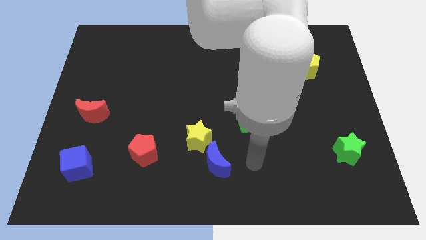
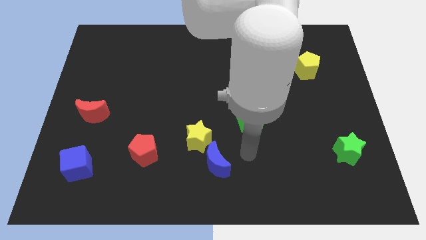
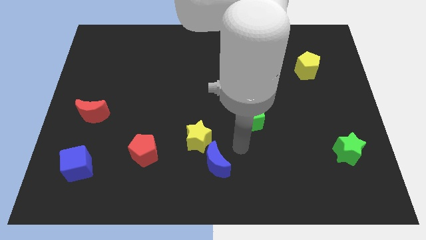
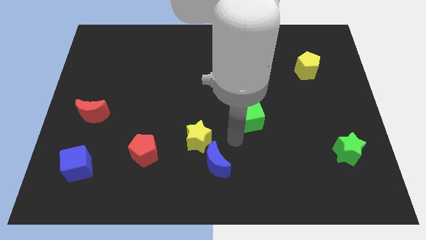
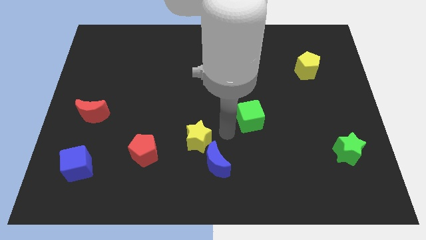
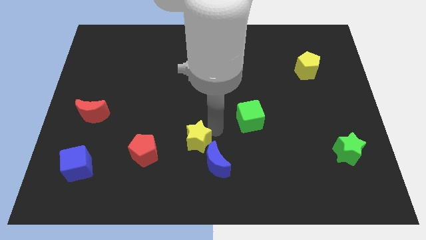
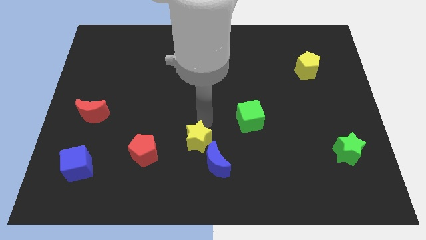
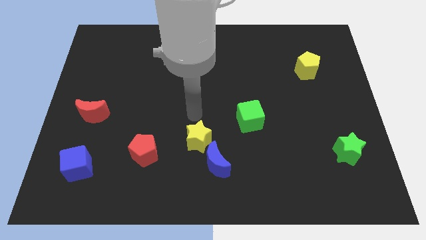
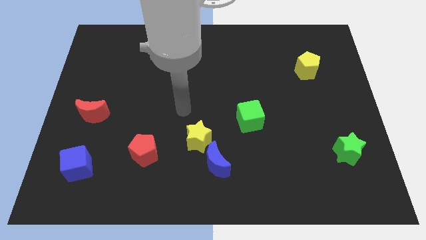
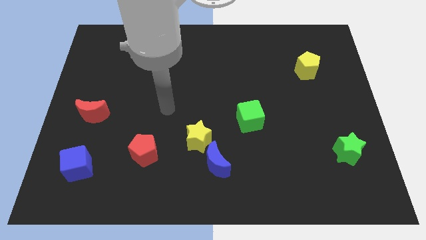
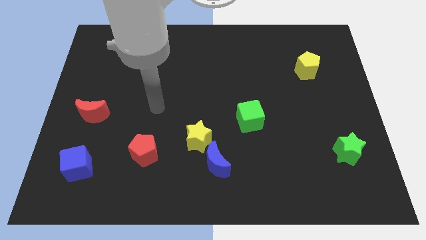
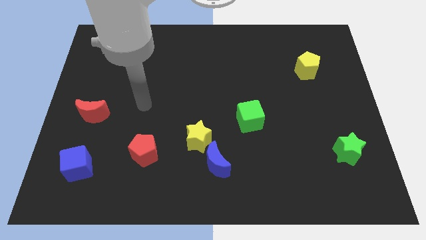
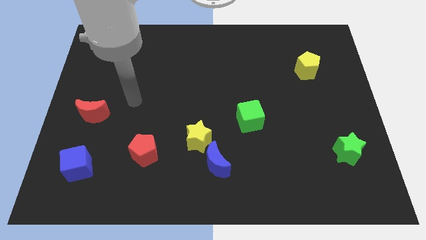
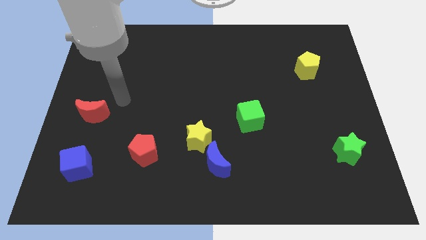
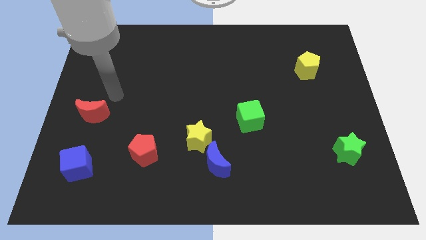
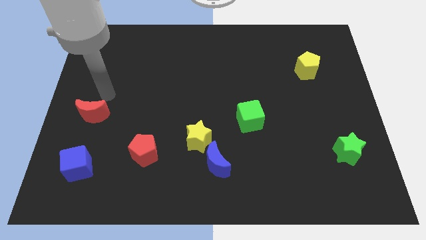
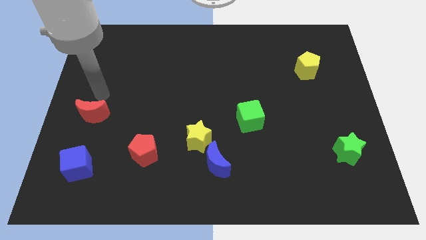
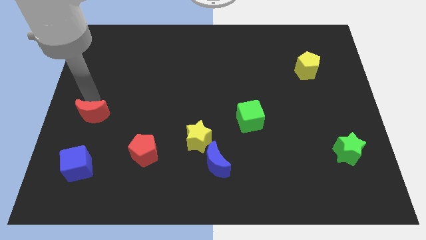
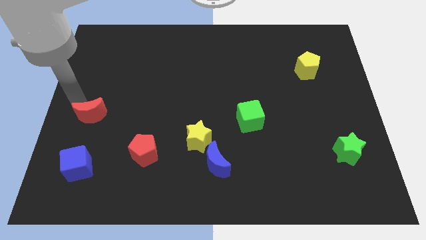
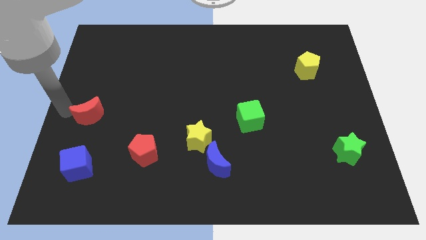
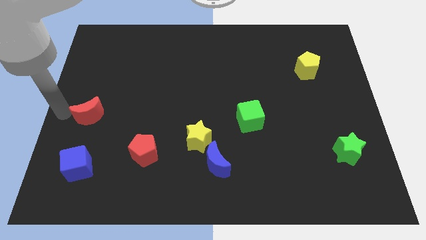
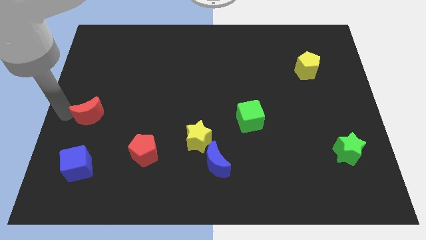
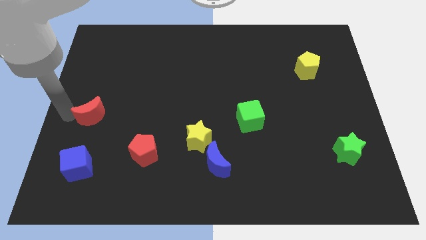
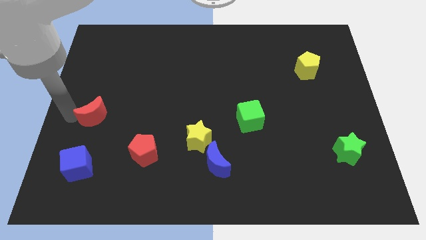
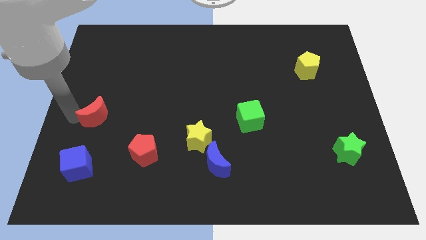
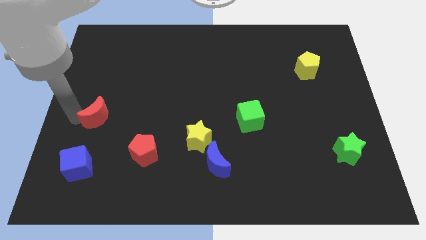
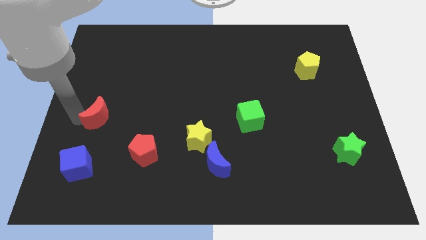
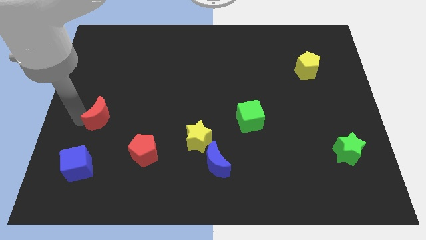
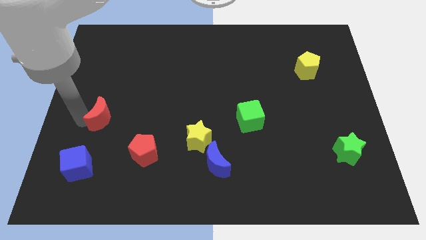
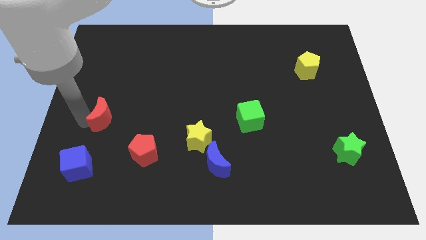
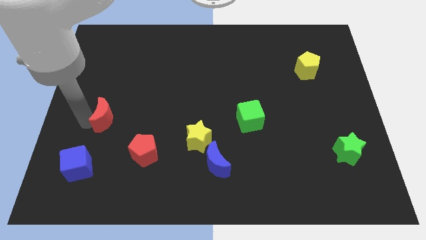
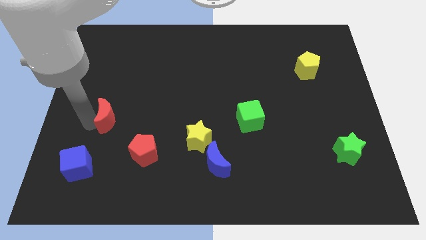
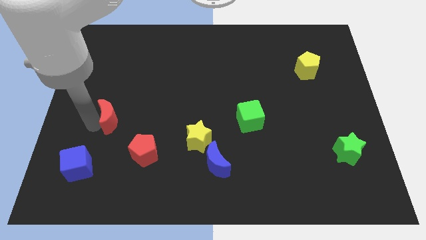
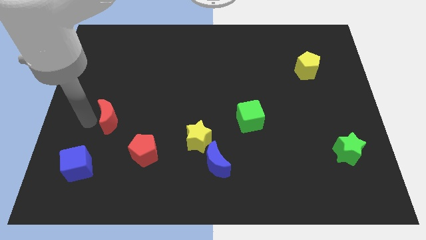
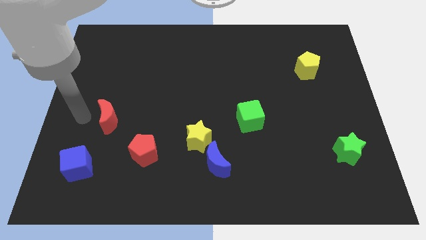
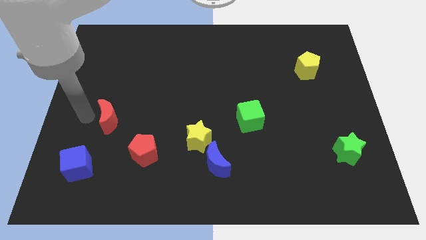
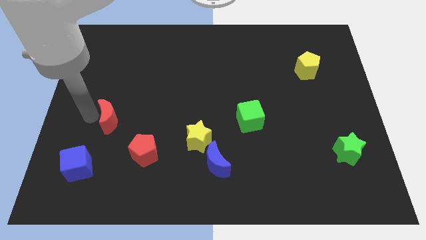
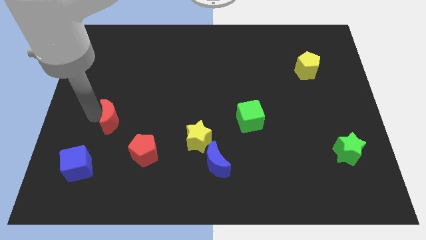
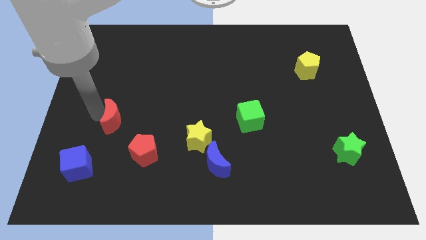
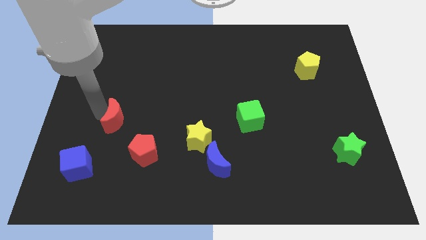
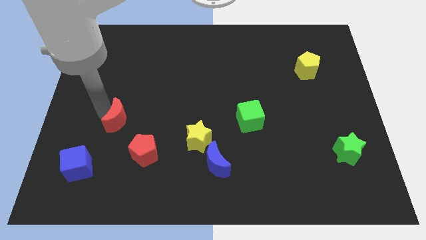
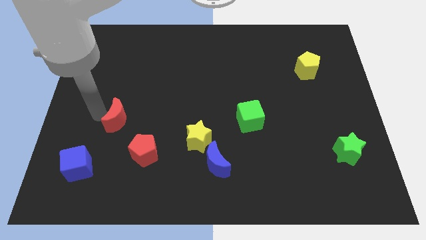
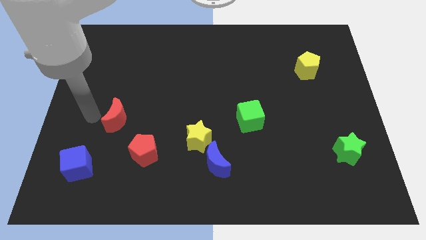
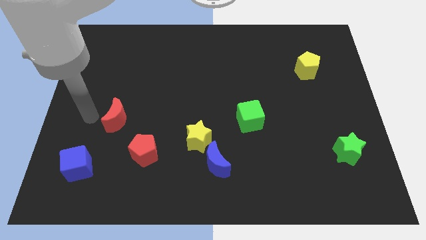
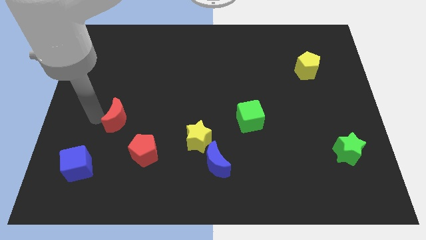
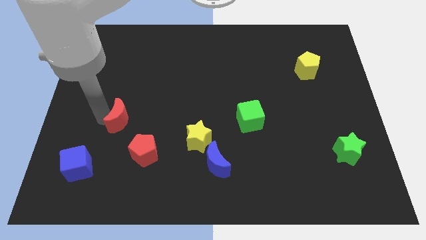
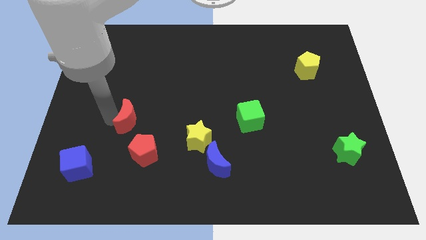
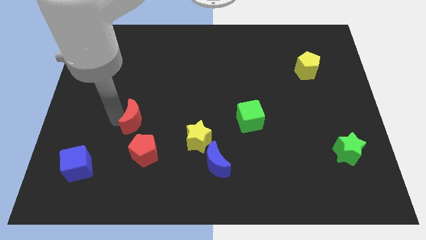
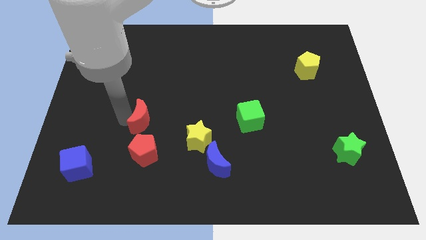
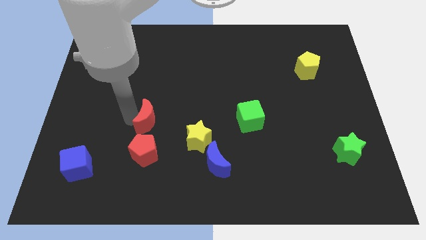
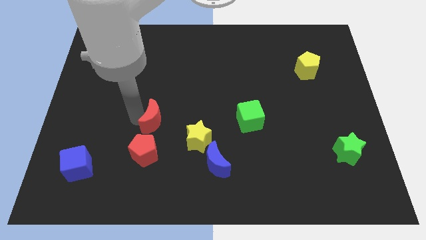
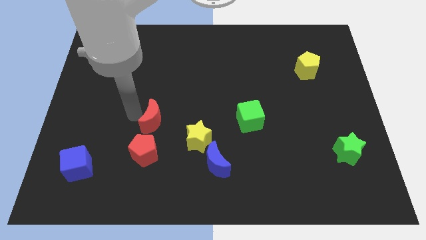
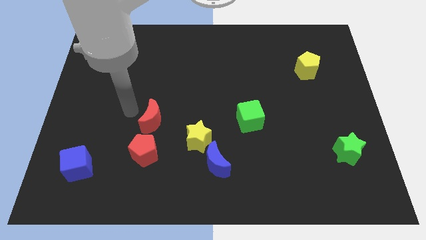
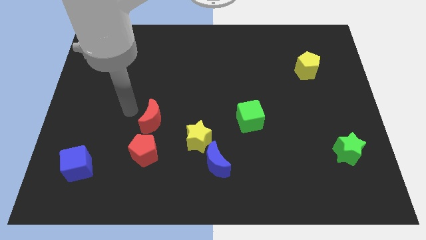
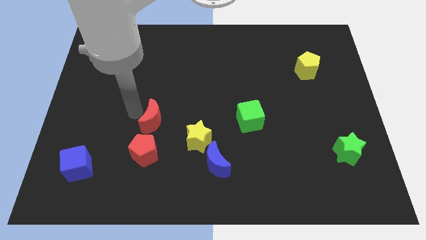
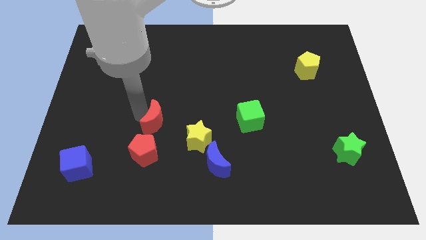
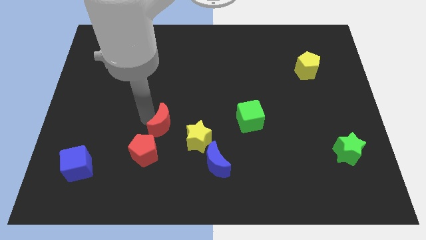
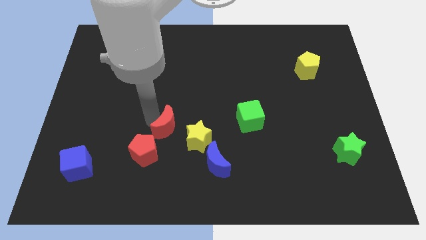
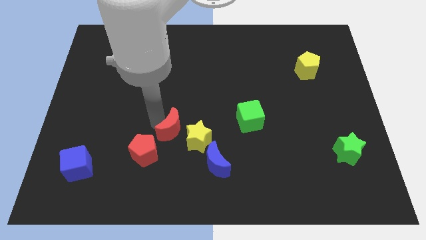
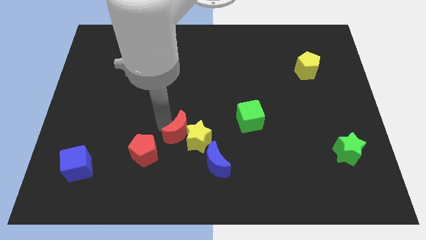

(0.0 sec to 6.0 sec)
push the red moon to the top left side of the blue moon

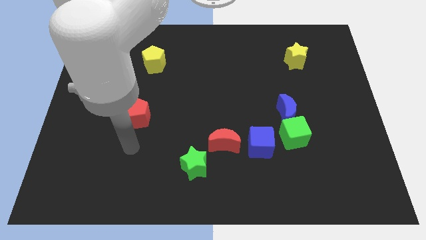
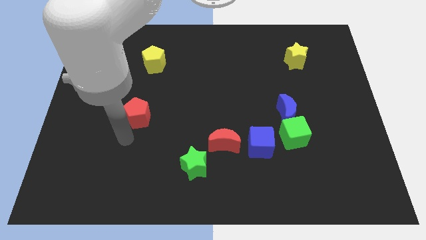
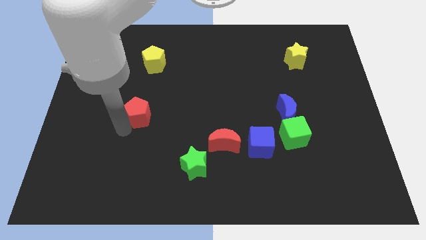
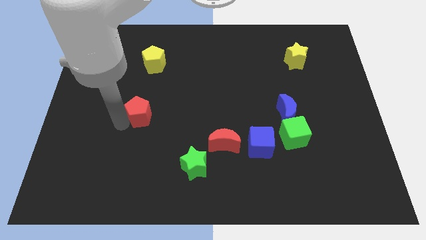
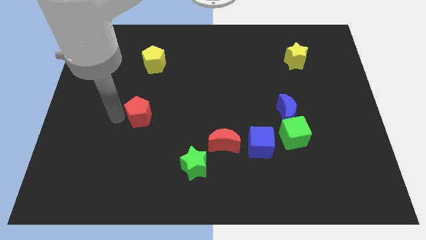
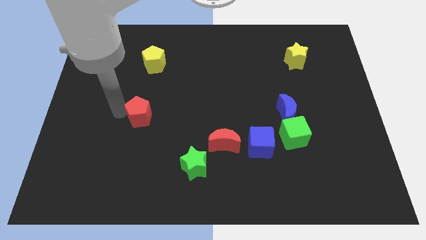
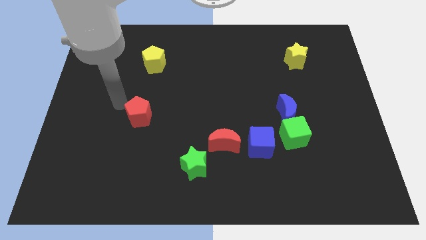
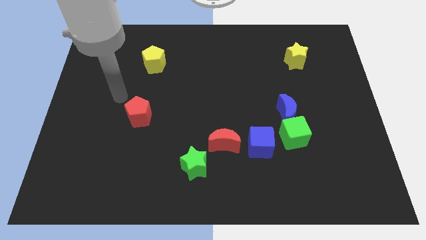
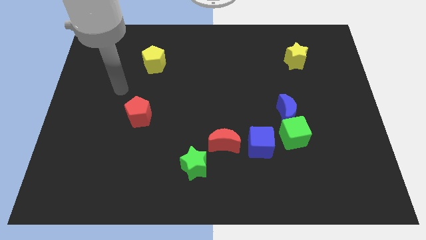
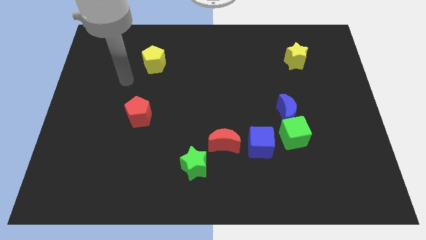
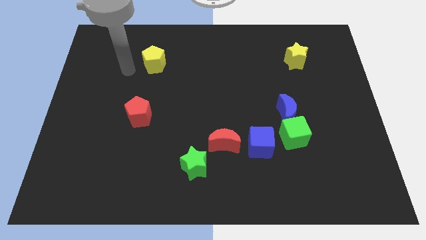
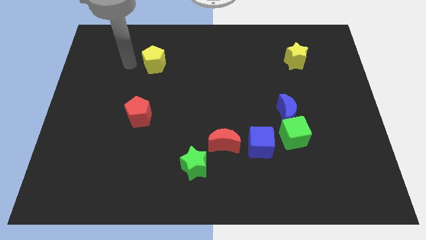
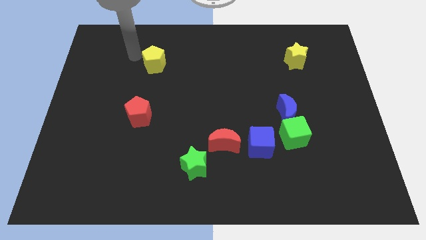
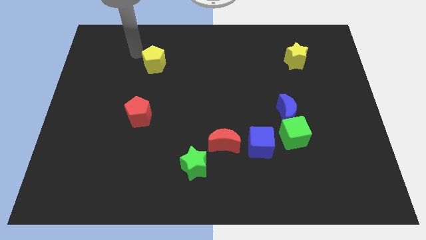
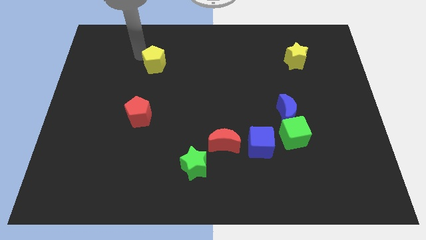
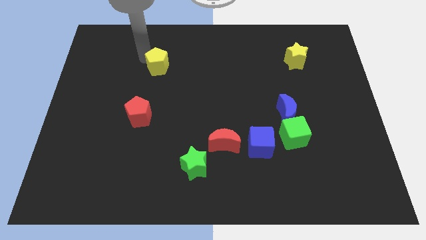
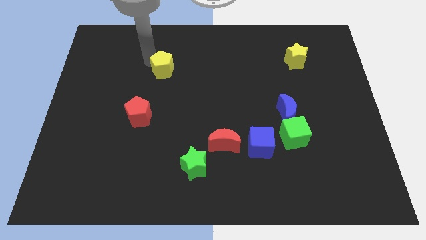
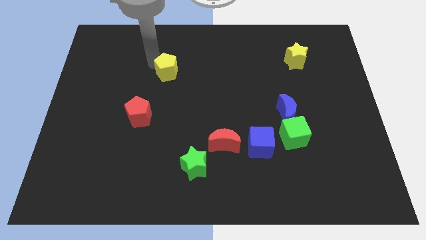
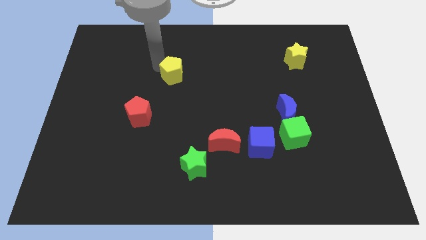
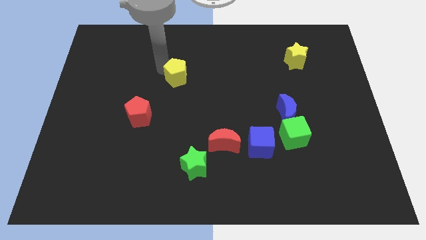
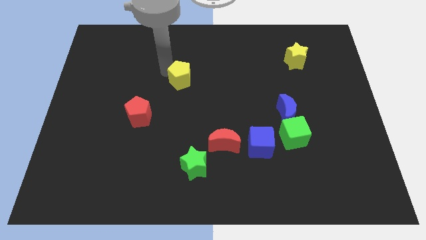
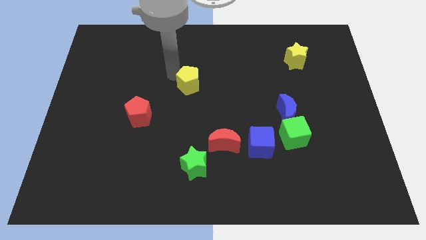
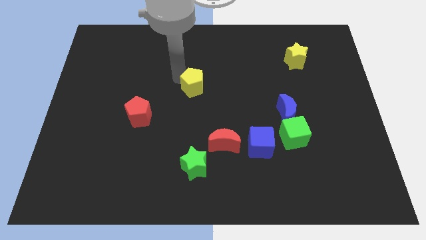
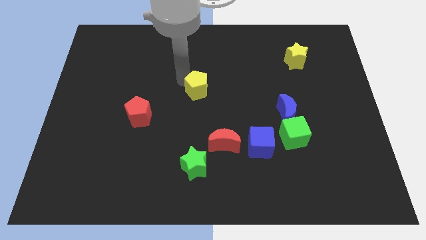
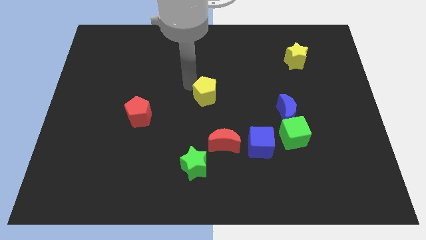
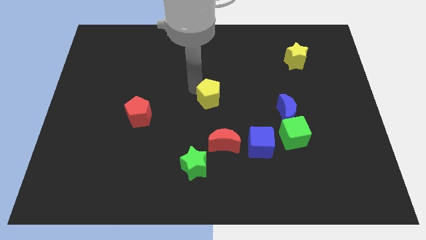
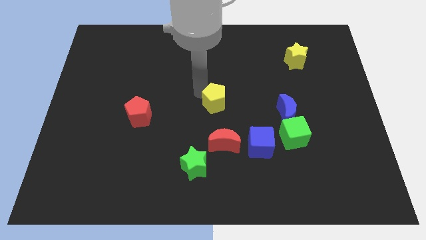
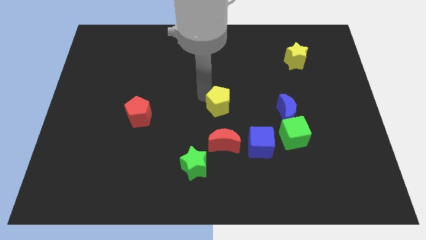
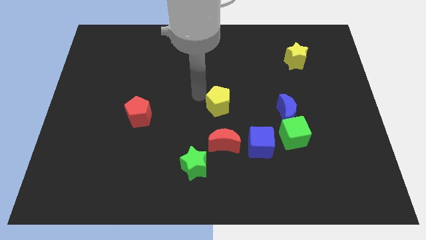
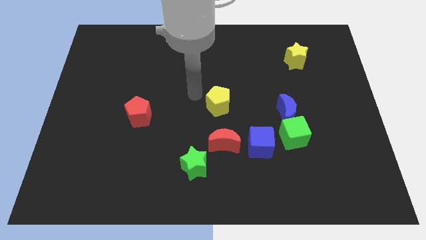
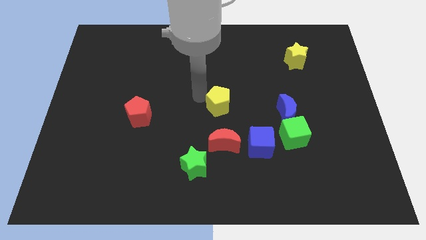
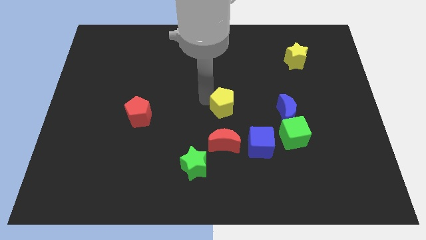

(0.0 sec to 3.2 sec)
push the yellow pentagon to the left of the blue moon
